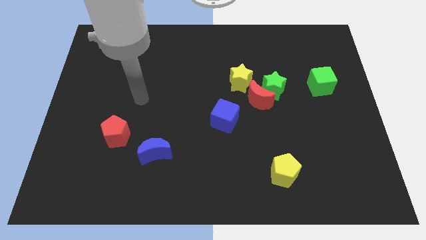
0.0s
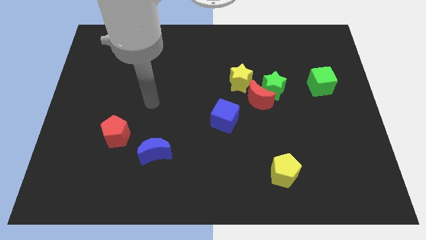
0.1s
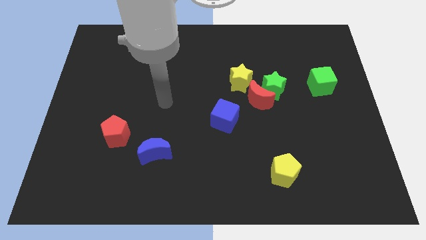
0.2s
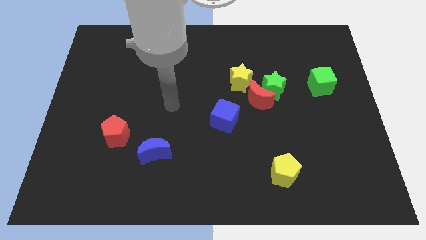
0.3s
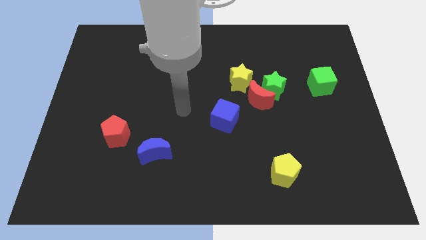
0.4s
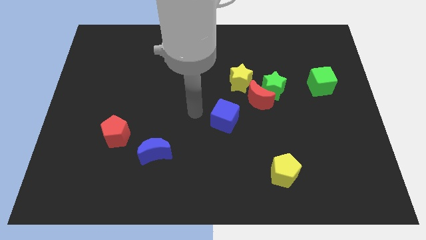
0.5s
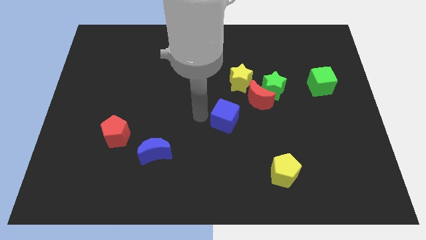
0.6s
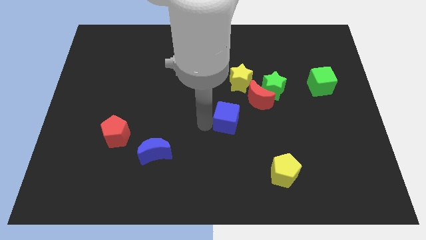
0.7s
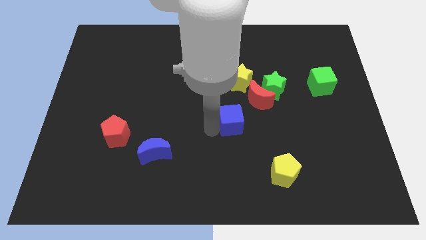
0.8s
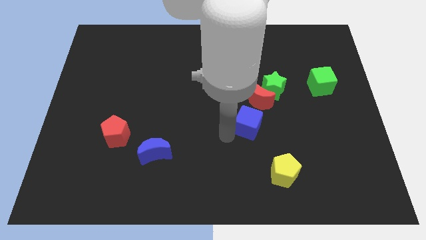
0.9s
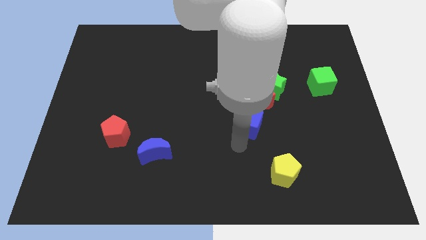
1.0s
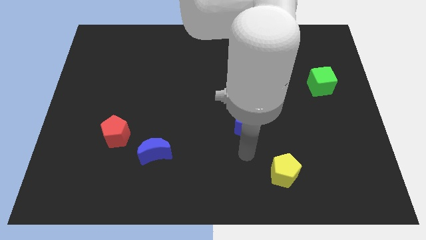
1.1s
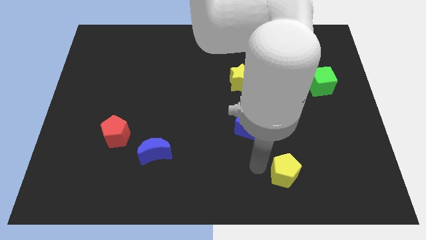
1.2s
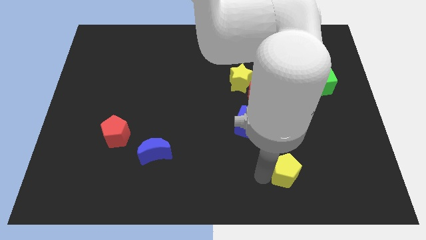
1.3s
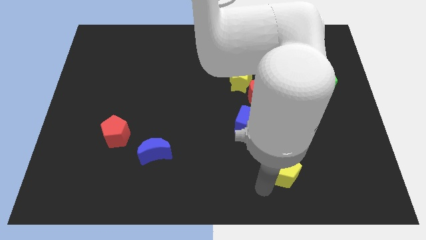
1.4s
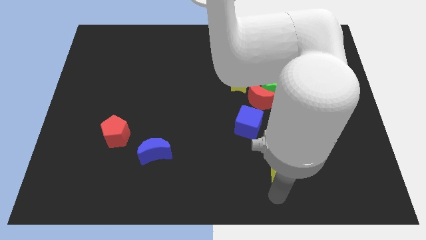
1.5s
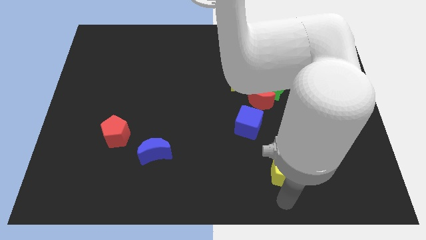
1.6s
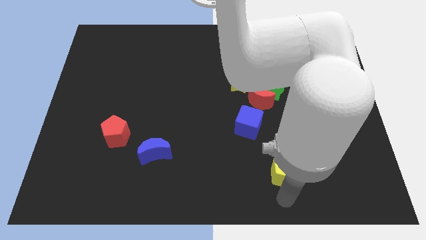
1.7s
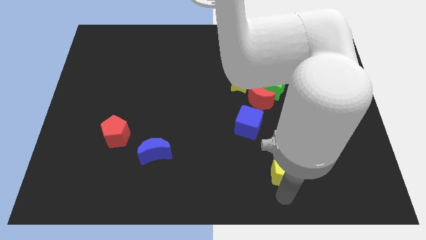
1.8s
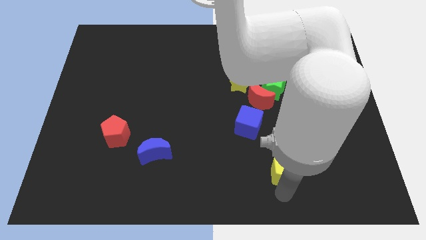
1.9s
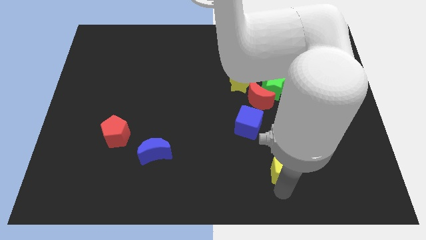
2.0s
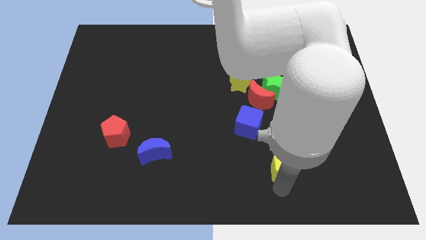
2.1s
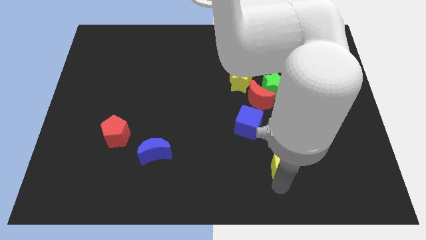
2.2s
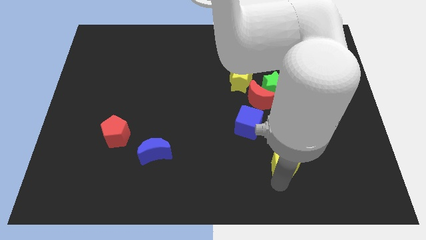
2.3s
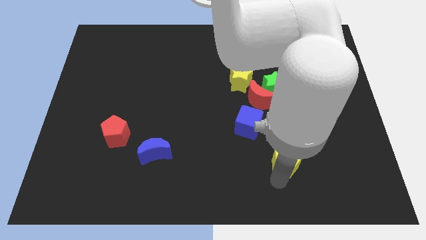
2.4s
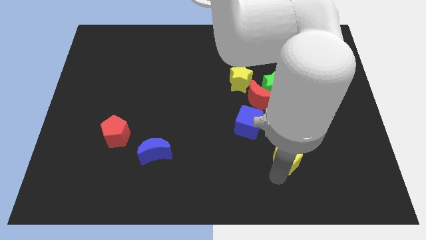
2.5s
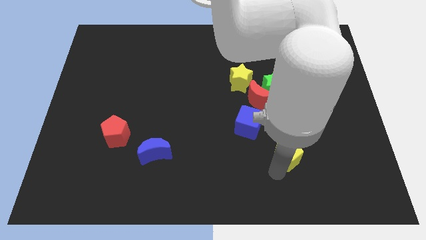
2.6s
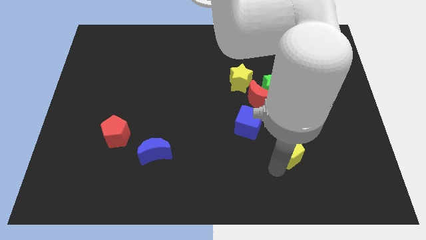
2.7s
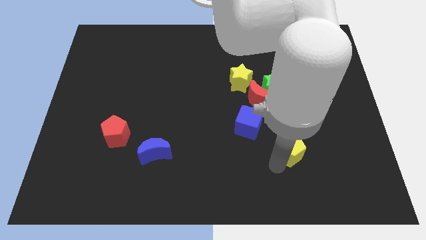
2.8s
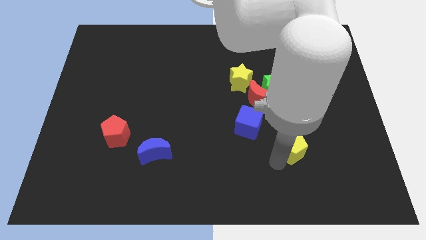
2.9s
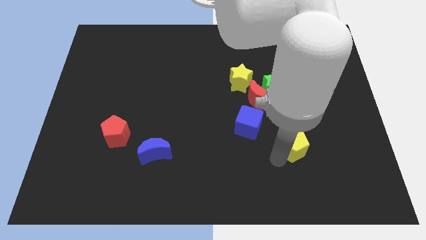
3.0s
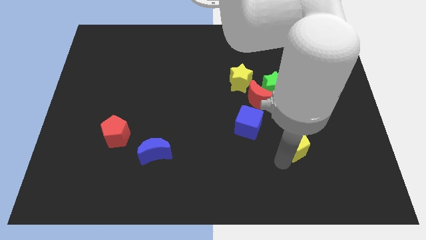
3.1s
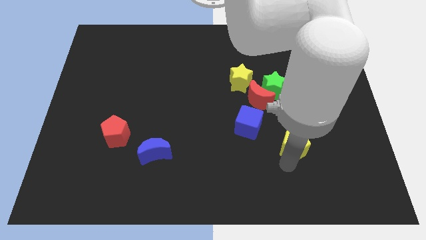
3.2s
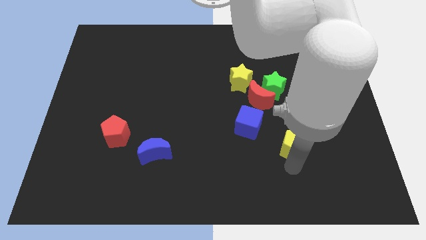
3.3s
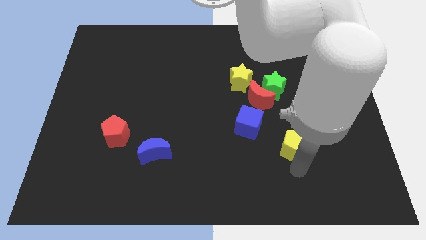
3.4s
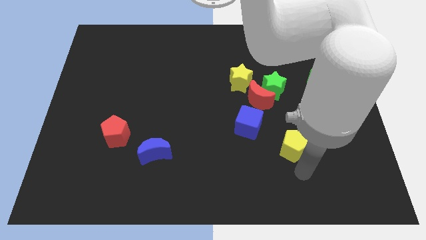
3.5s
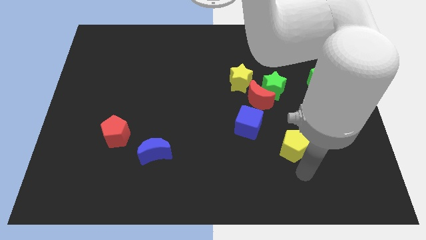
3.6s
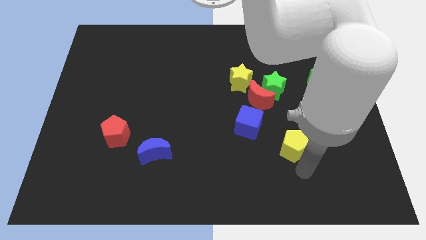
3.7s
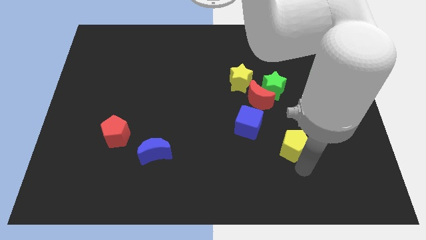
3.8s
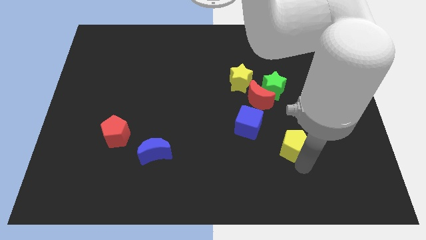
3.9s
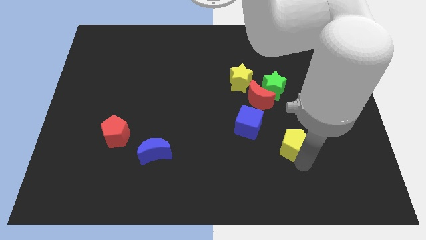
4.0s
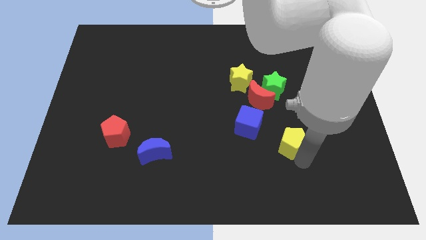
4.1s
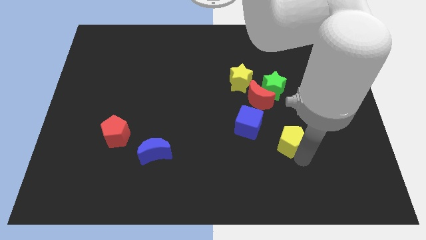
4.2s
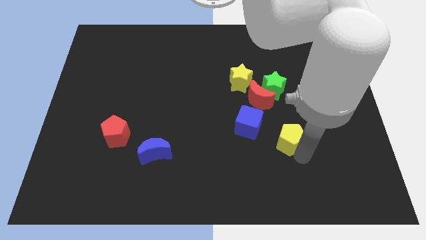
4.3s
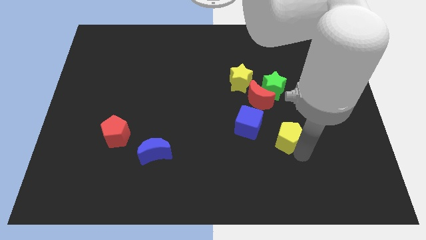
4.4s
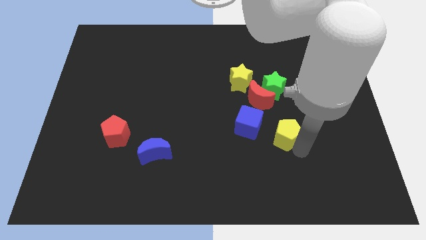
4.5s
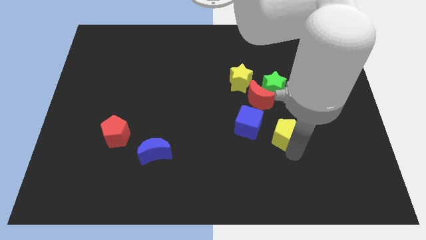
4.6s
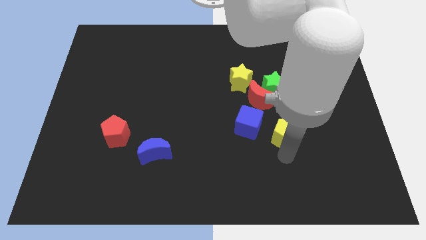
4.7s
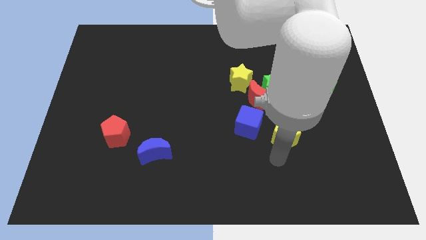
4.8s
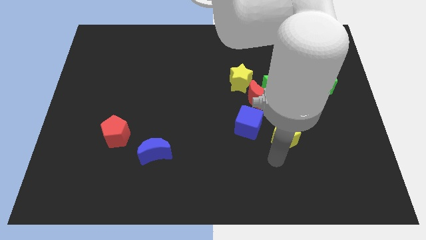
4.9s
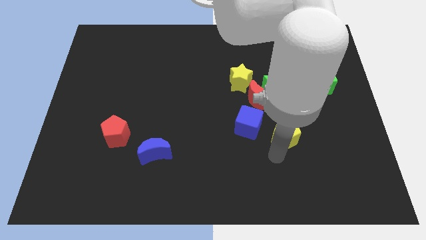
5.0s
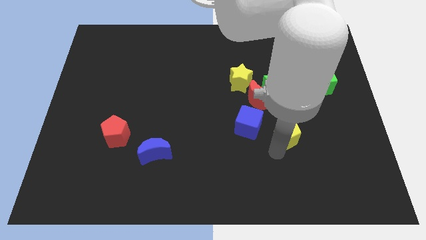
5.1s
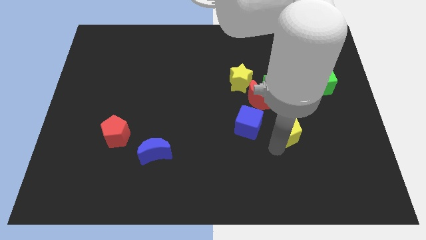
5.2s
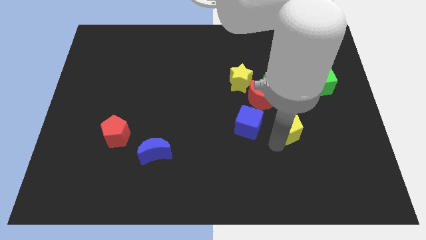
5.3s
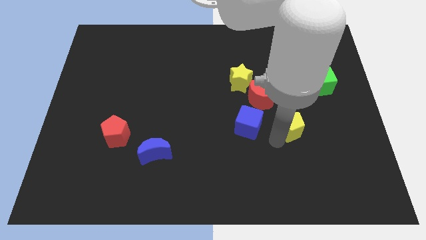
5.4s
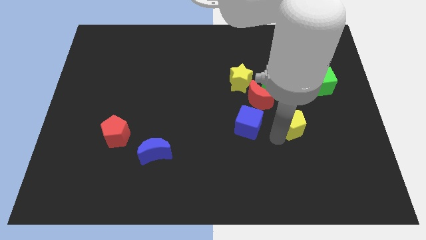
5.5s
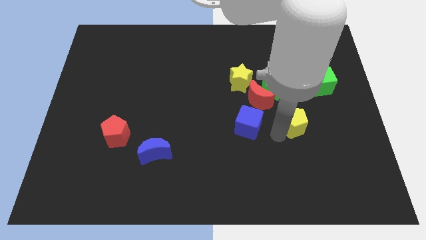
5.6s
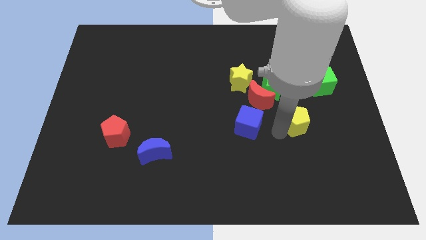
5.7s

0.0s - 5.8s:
push the yellow pentagon to the bottom right side of the green star

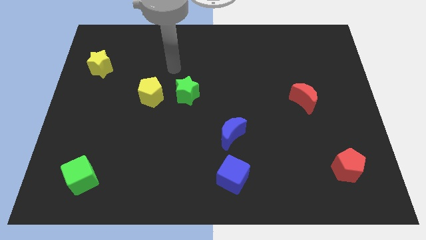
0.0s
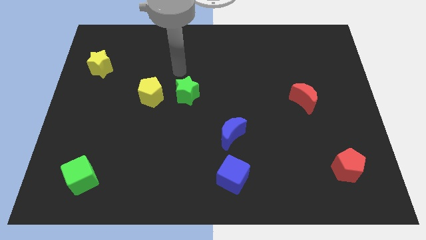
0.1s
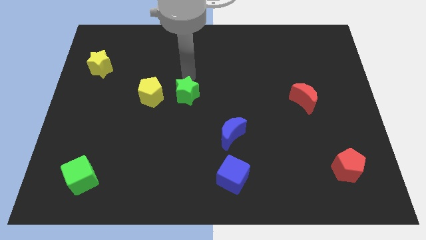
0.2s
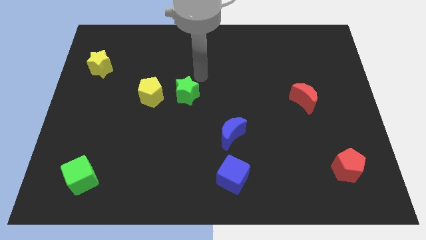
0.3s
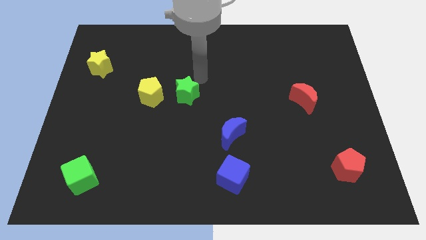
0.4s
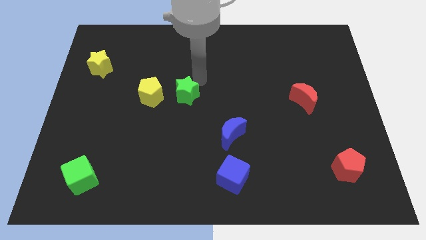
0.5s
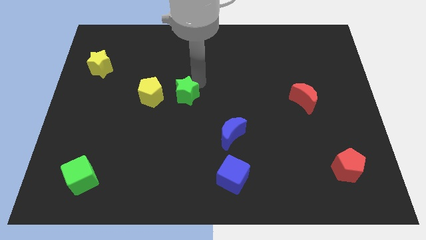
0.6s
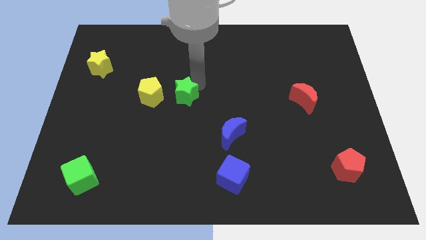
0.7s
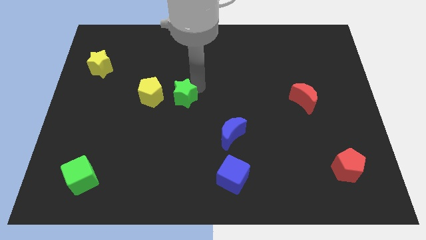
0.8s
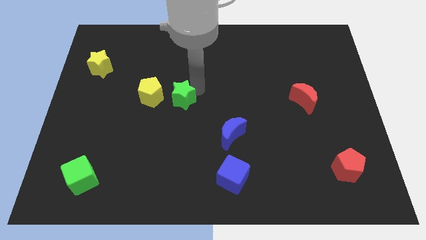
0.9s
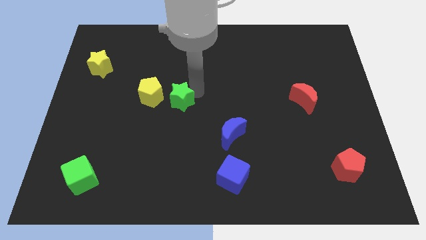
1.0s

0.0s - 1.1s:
slide the green star diagonally down and to the right of the yellow pentagon
